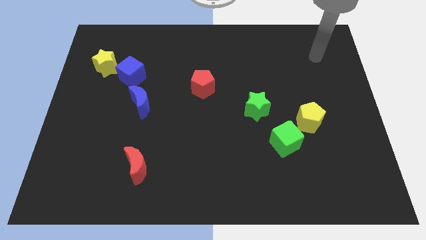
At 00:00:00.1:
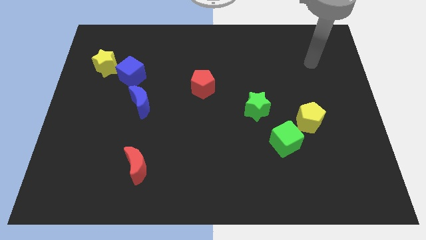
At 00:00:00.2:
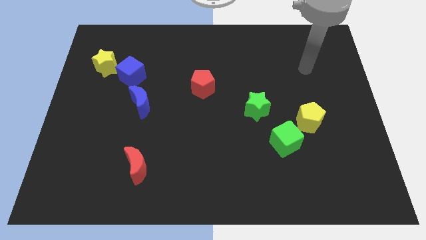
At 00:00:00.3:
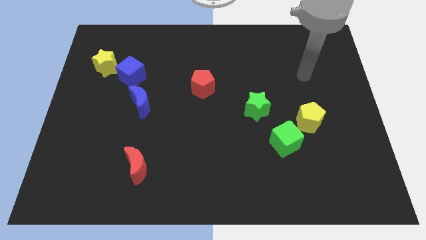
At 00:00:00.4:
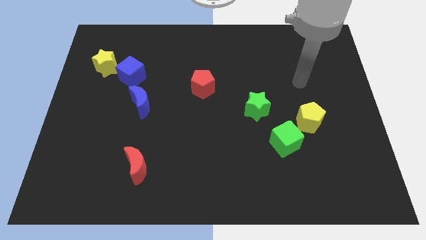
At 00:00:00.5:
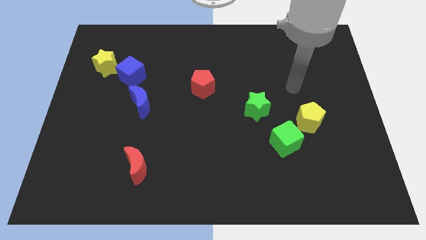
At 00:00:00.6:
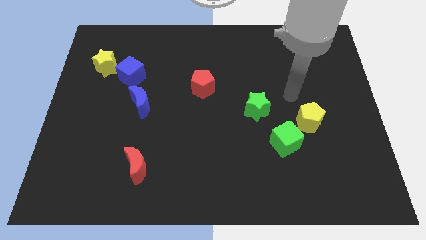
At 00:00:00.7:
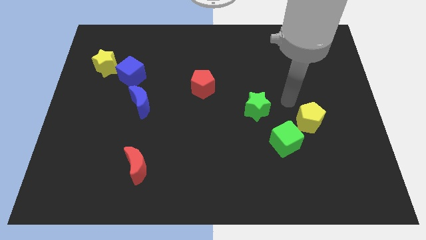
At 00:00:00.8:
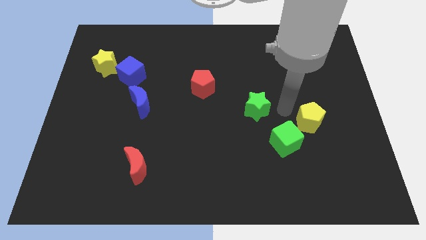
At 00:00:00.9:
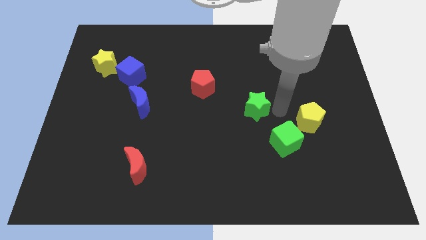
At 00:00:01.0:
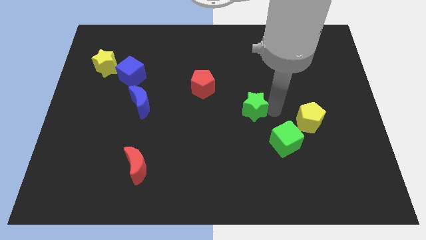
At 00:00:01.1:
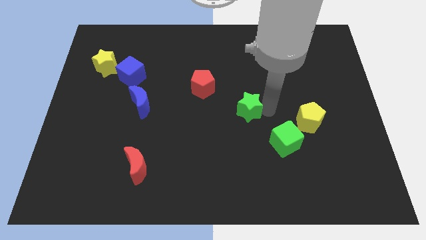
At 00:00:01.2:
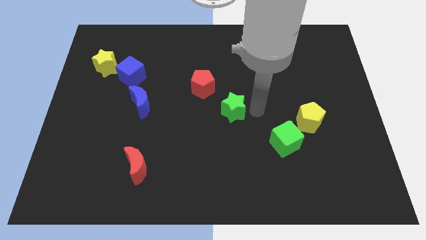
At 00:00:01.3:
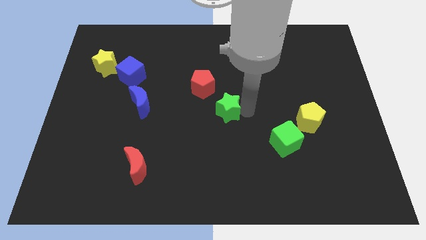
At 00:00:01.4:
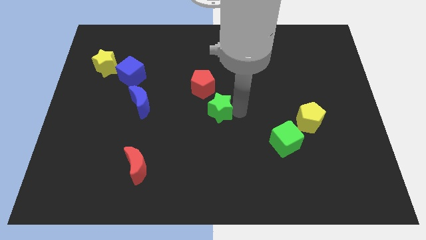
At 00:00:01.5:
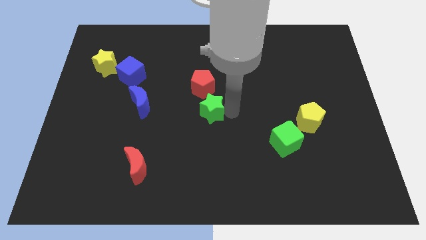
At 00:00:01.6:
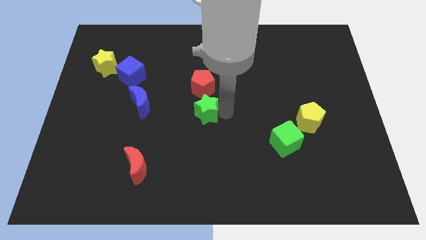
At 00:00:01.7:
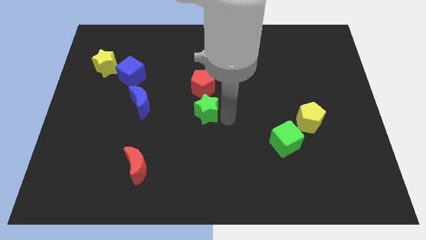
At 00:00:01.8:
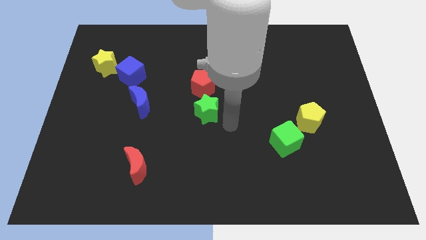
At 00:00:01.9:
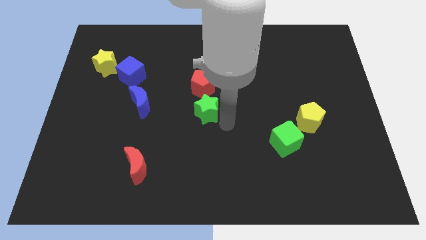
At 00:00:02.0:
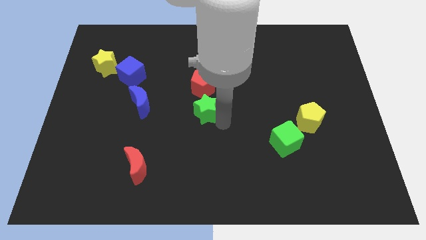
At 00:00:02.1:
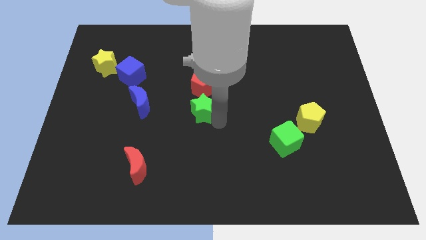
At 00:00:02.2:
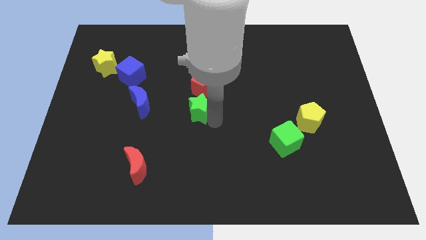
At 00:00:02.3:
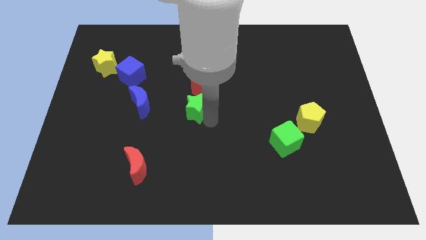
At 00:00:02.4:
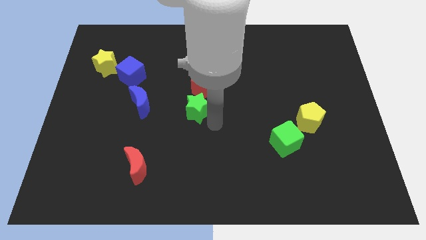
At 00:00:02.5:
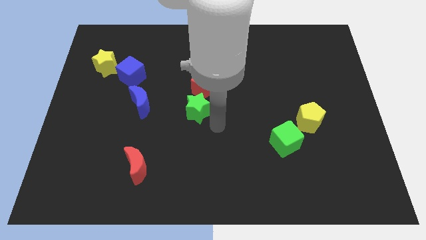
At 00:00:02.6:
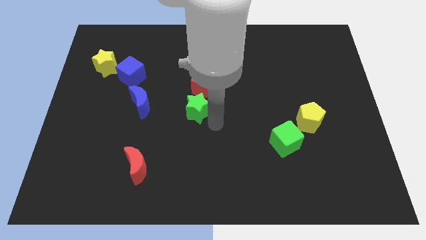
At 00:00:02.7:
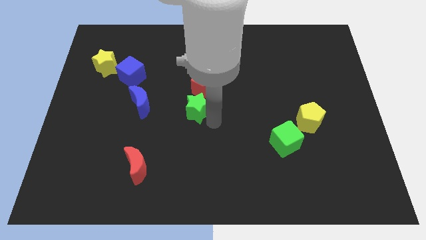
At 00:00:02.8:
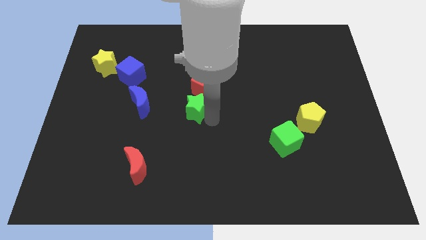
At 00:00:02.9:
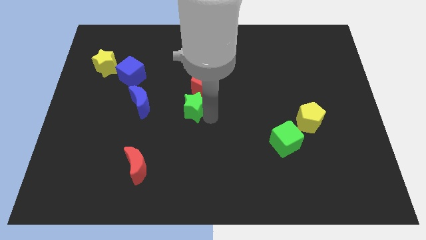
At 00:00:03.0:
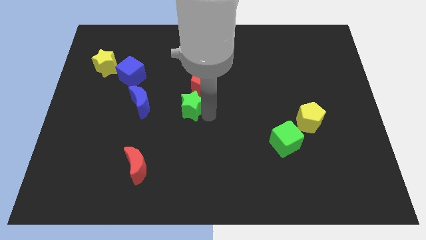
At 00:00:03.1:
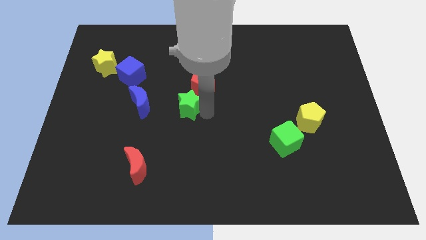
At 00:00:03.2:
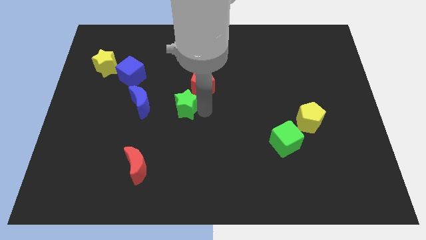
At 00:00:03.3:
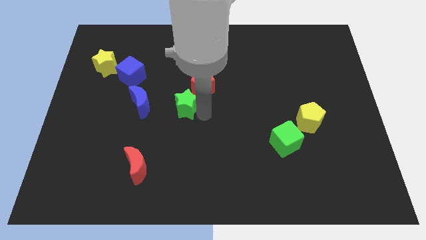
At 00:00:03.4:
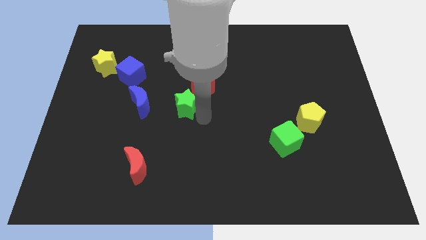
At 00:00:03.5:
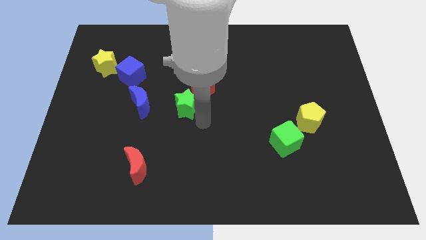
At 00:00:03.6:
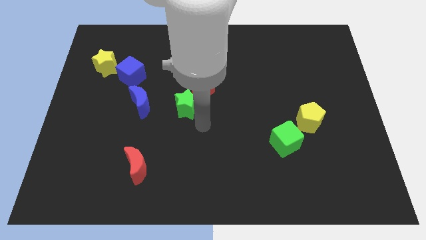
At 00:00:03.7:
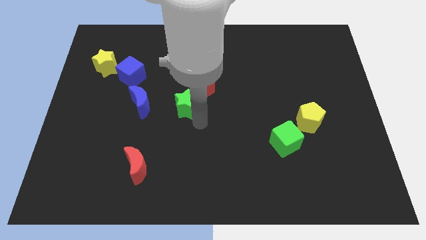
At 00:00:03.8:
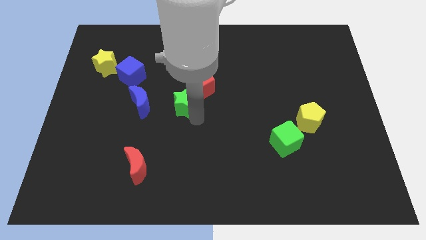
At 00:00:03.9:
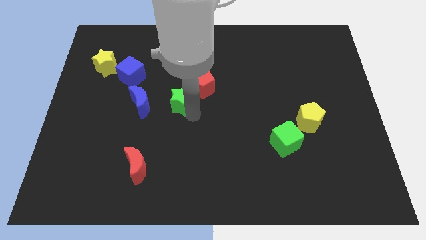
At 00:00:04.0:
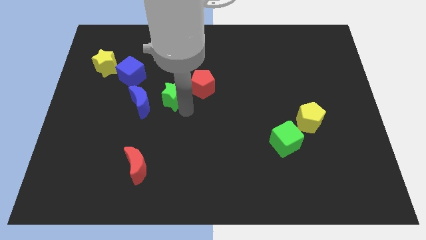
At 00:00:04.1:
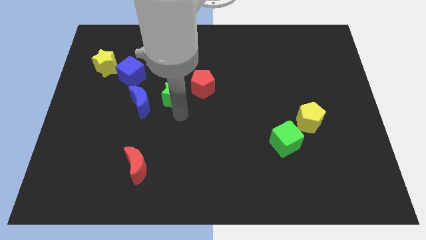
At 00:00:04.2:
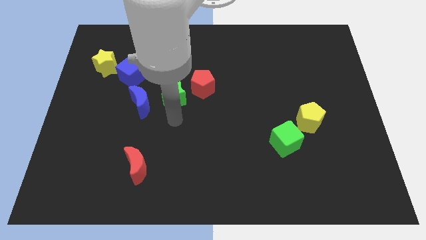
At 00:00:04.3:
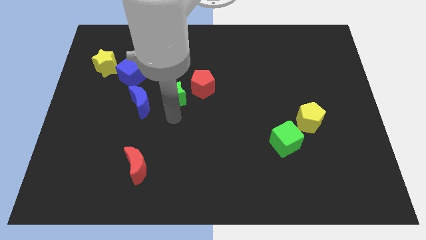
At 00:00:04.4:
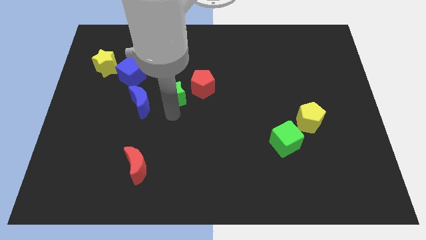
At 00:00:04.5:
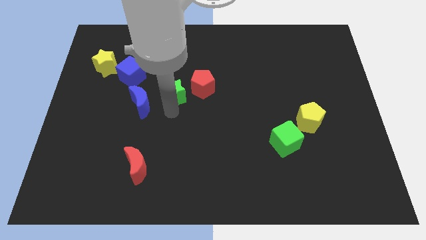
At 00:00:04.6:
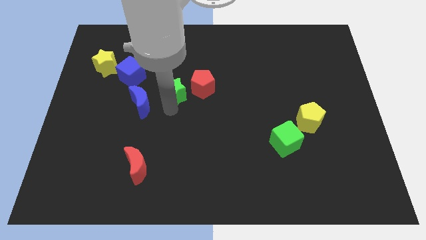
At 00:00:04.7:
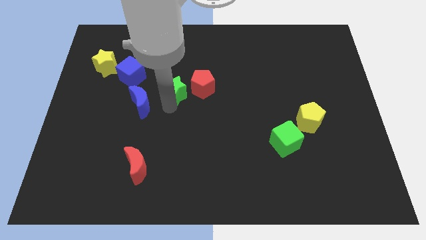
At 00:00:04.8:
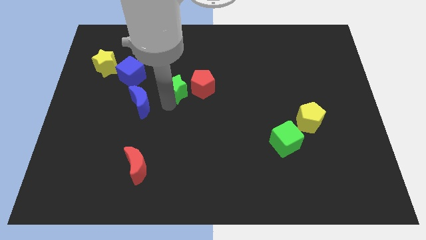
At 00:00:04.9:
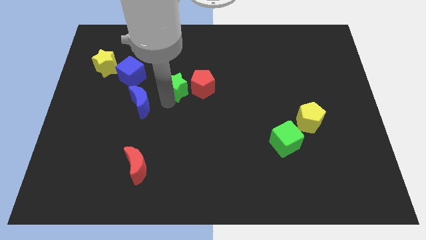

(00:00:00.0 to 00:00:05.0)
put the green star to the right of the blue cube

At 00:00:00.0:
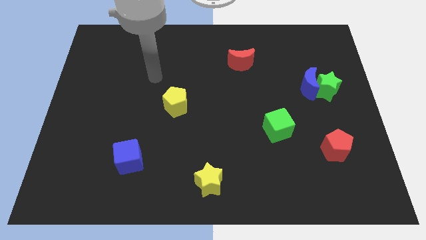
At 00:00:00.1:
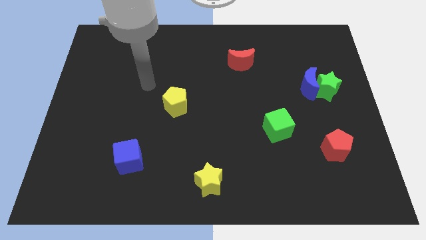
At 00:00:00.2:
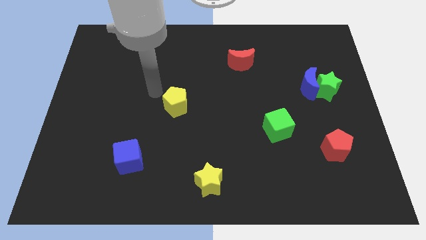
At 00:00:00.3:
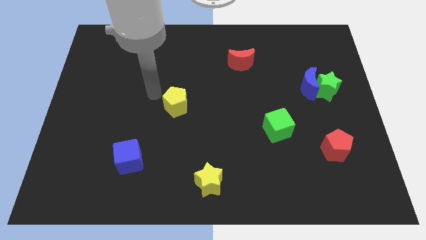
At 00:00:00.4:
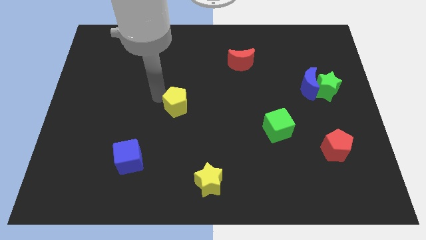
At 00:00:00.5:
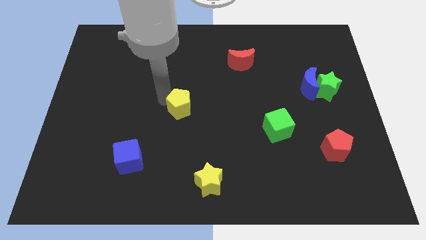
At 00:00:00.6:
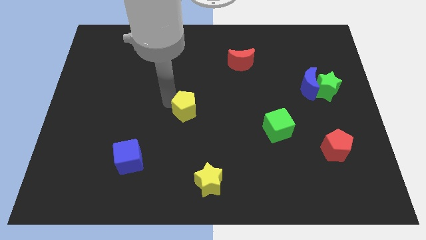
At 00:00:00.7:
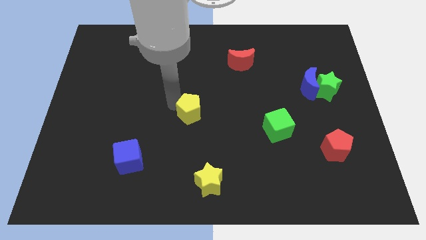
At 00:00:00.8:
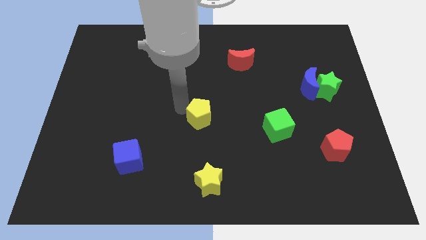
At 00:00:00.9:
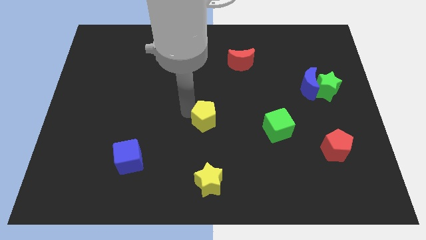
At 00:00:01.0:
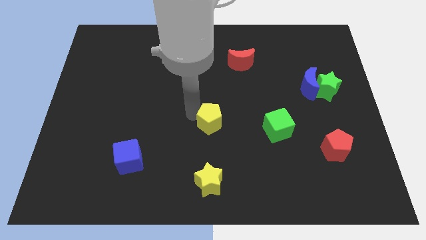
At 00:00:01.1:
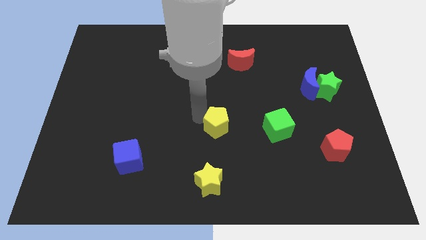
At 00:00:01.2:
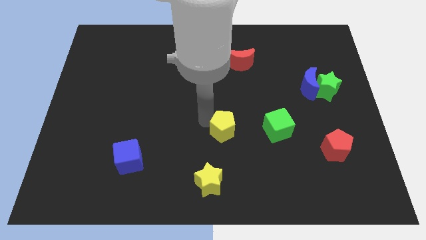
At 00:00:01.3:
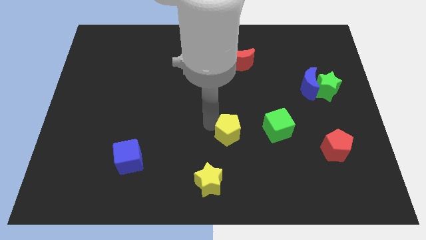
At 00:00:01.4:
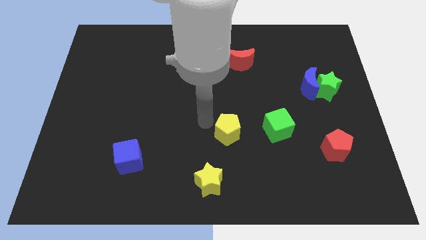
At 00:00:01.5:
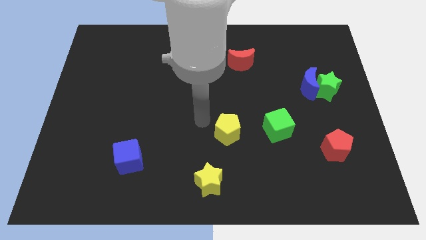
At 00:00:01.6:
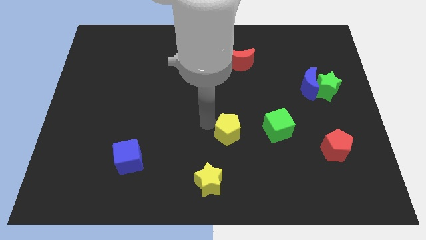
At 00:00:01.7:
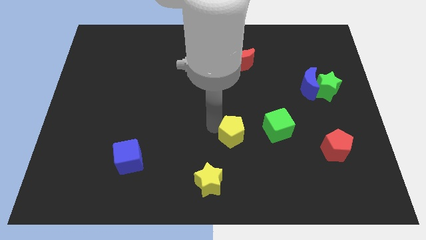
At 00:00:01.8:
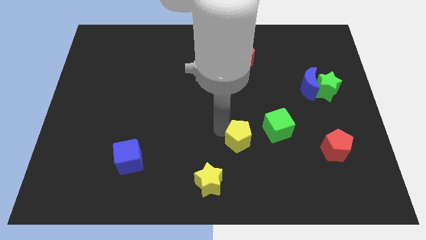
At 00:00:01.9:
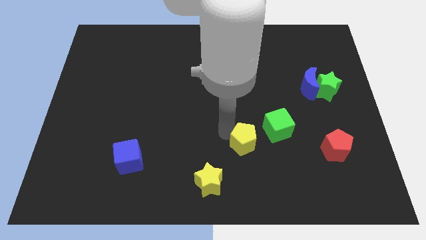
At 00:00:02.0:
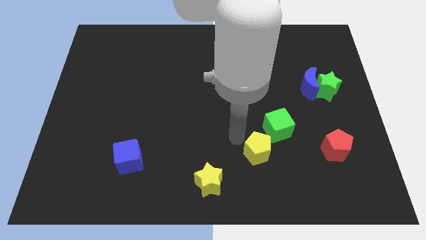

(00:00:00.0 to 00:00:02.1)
push the yellow pentagon to the bottom of the green cube
